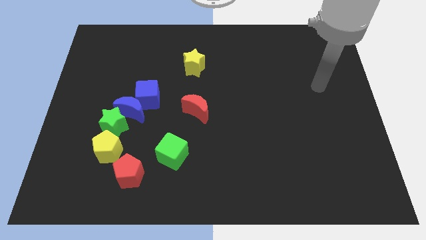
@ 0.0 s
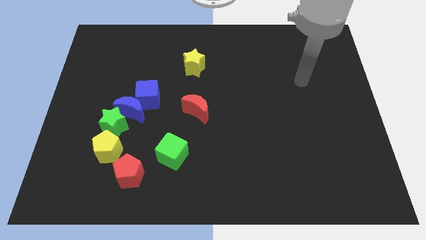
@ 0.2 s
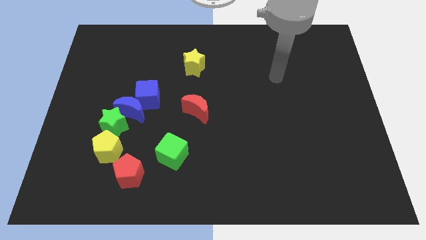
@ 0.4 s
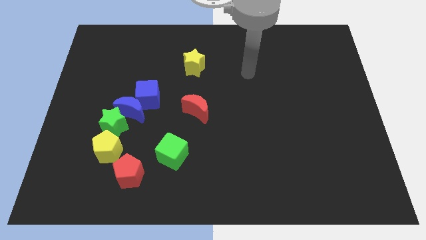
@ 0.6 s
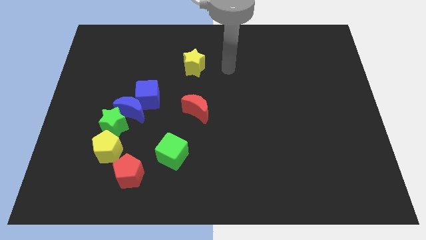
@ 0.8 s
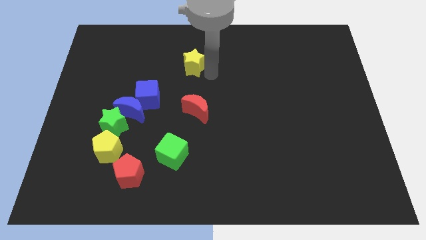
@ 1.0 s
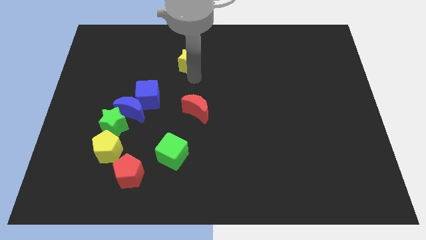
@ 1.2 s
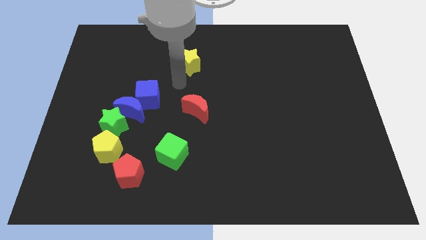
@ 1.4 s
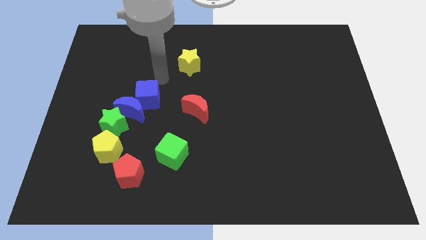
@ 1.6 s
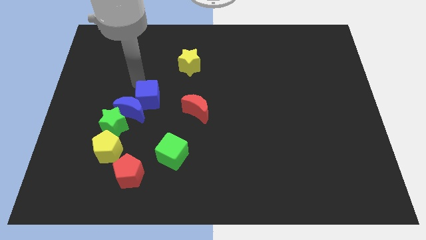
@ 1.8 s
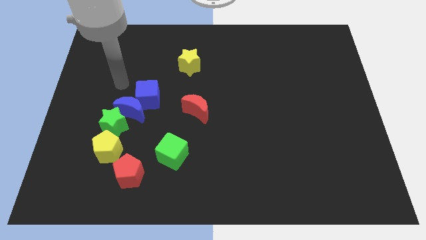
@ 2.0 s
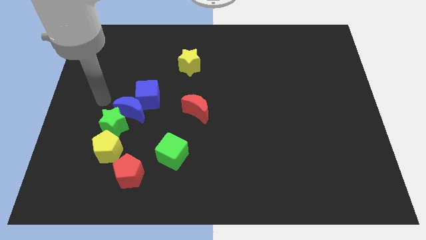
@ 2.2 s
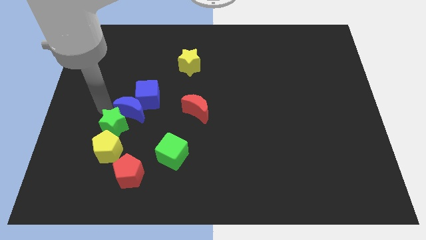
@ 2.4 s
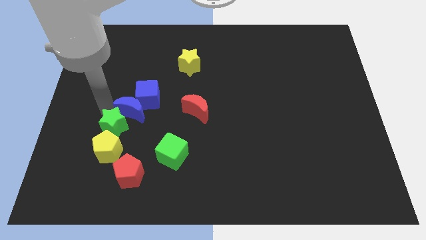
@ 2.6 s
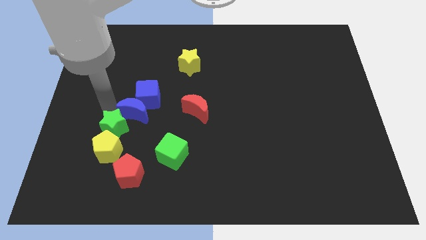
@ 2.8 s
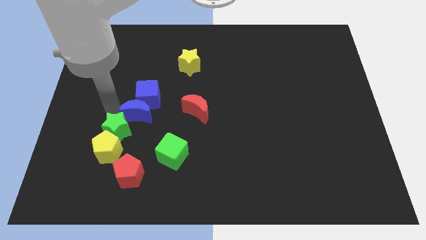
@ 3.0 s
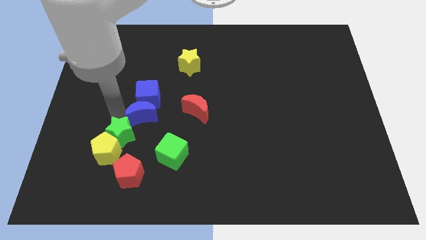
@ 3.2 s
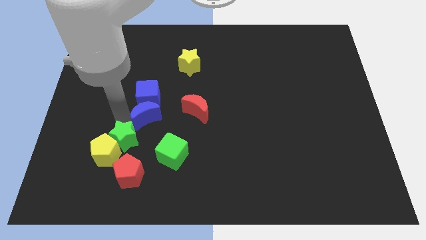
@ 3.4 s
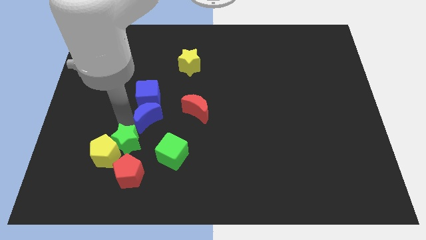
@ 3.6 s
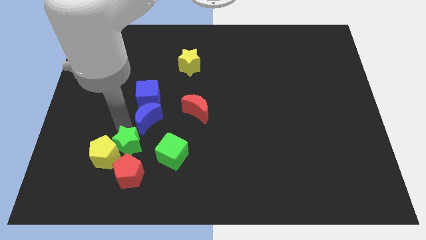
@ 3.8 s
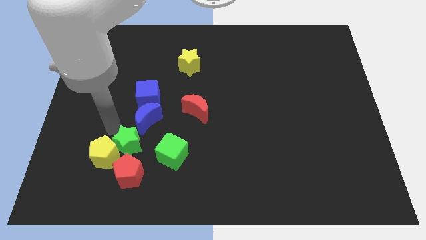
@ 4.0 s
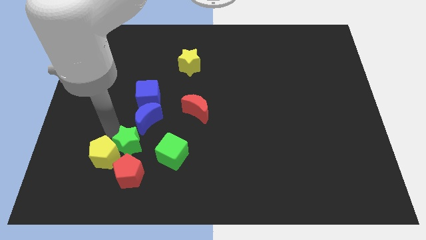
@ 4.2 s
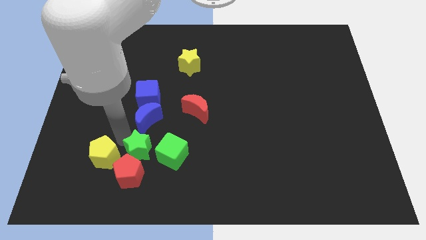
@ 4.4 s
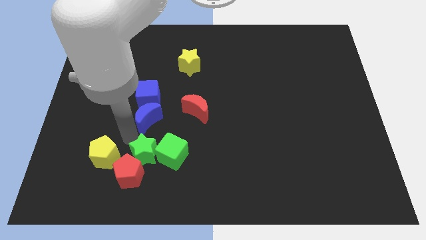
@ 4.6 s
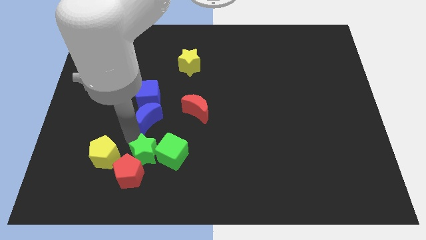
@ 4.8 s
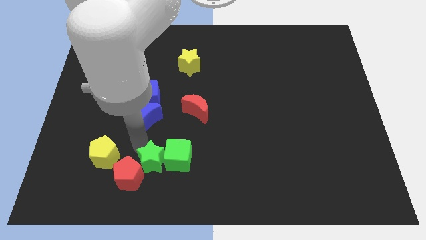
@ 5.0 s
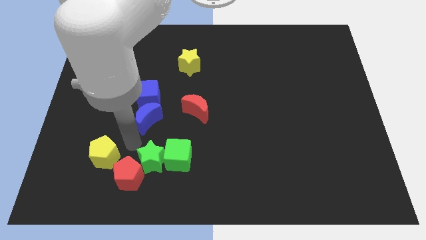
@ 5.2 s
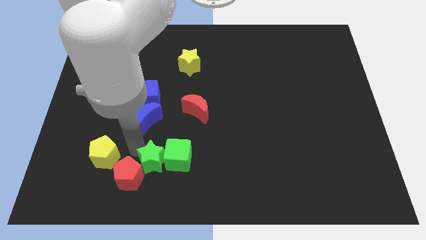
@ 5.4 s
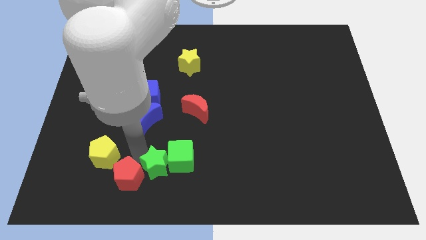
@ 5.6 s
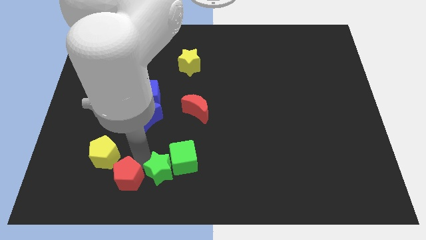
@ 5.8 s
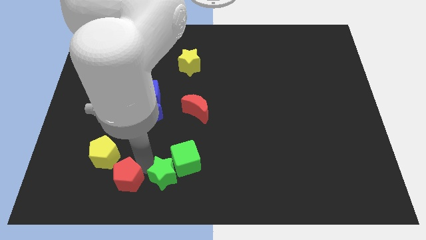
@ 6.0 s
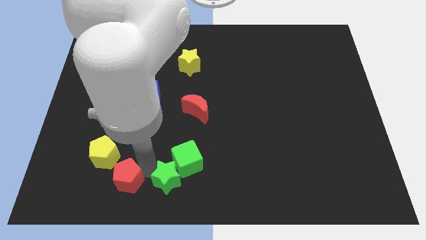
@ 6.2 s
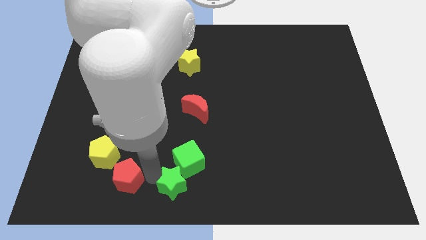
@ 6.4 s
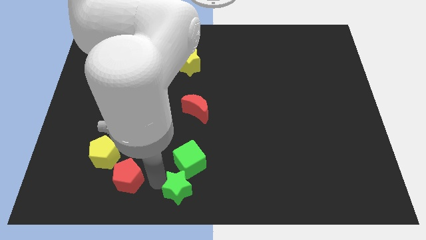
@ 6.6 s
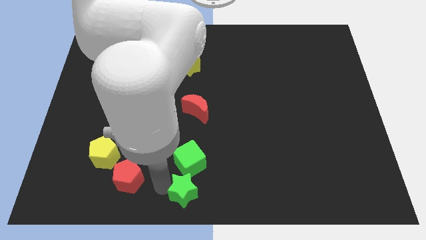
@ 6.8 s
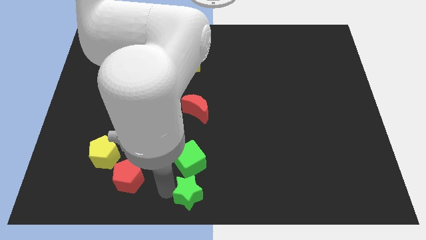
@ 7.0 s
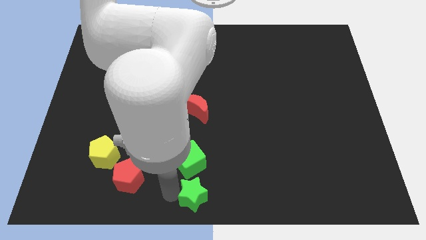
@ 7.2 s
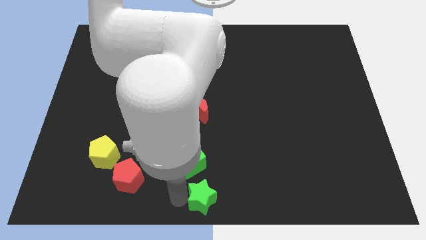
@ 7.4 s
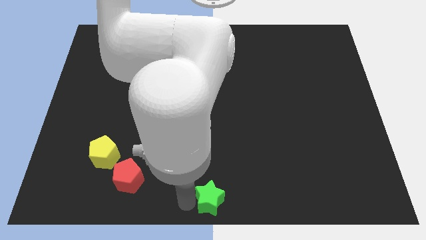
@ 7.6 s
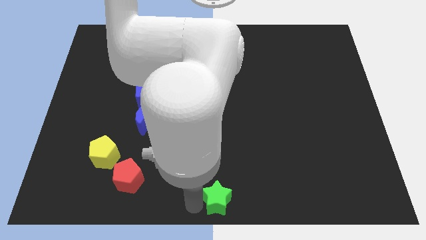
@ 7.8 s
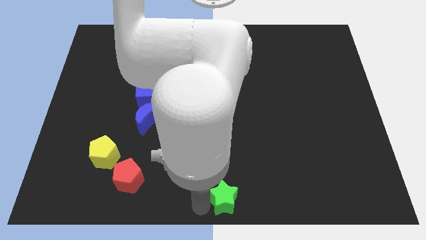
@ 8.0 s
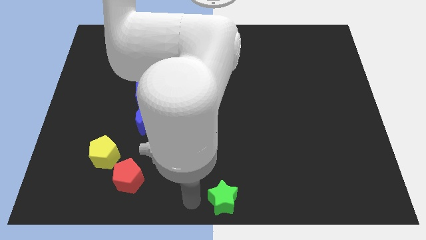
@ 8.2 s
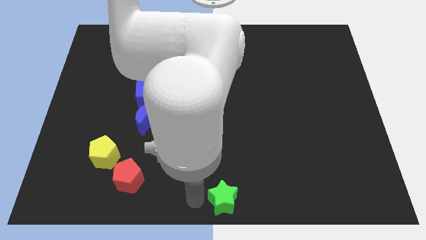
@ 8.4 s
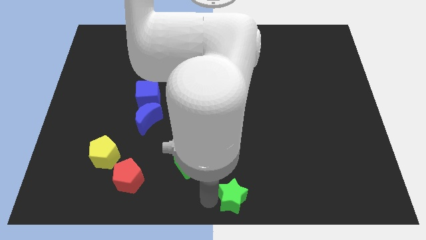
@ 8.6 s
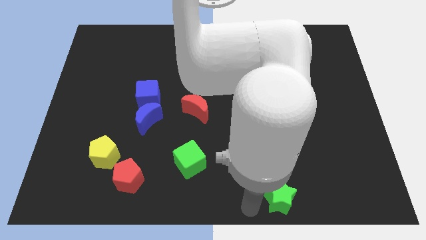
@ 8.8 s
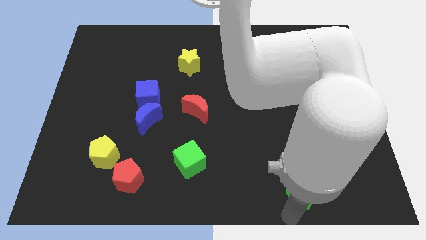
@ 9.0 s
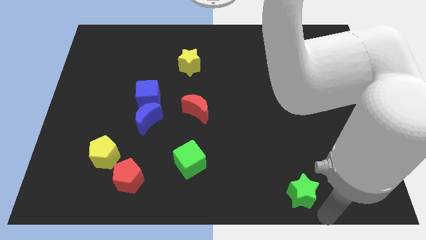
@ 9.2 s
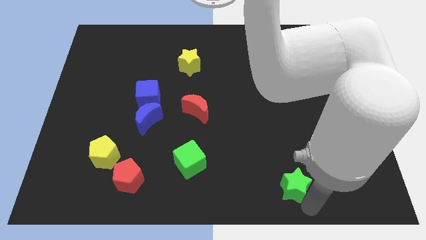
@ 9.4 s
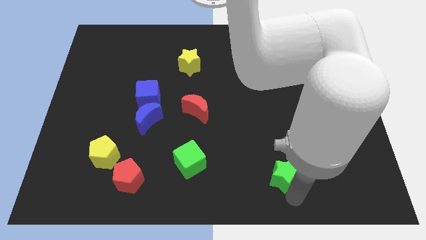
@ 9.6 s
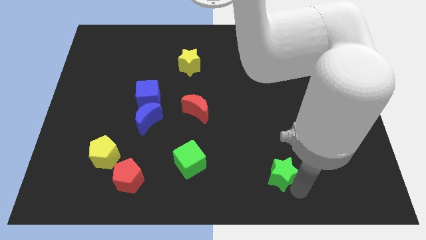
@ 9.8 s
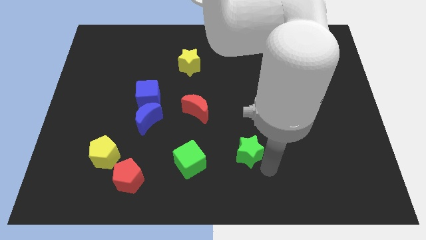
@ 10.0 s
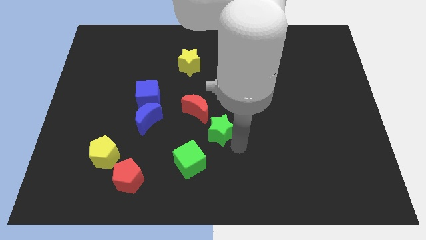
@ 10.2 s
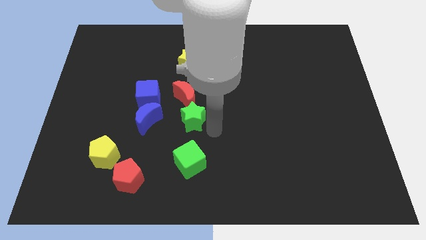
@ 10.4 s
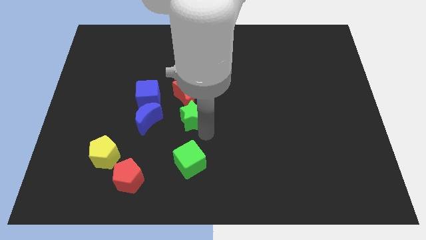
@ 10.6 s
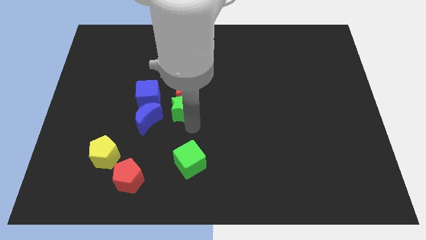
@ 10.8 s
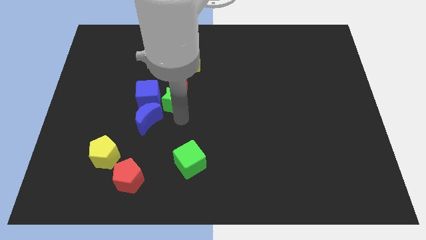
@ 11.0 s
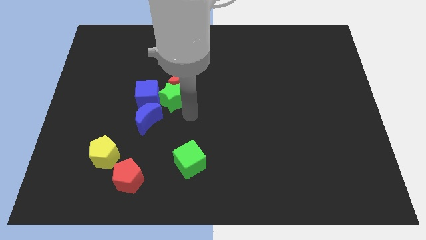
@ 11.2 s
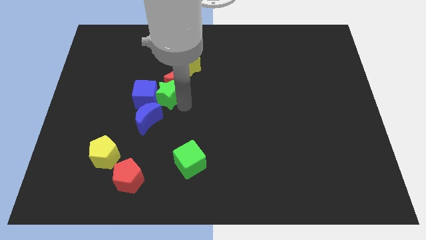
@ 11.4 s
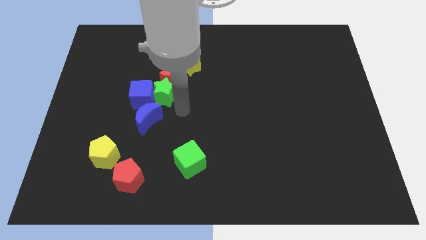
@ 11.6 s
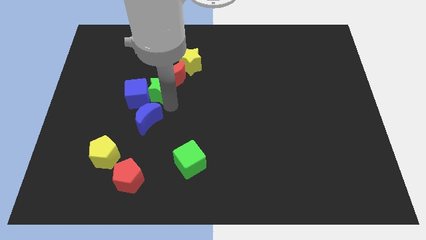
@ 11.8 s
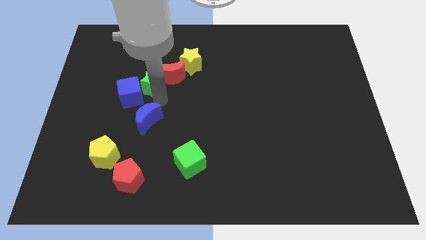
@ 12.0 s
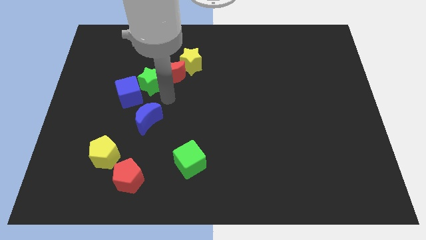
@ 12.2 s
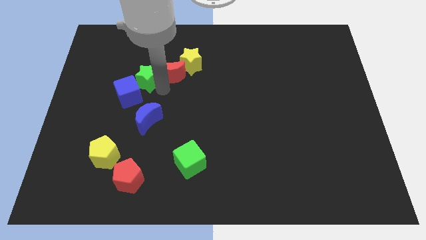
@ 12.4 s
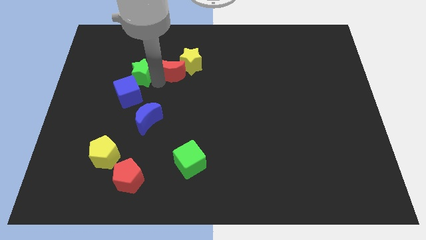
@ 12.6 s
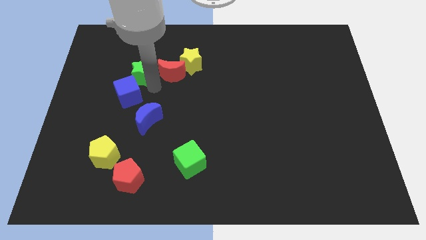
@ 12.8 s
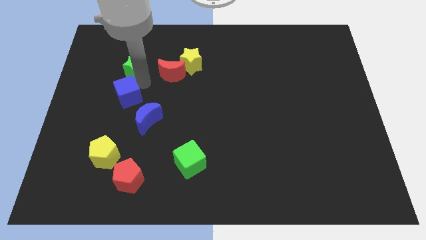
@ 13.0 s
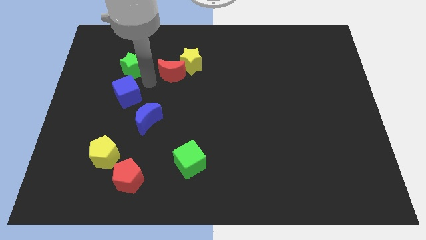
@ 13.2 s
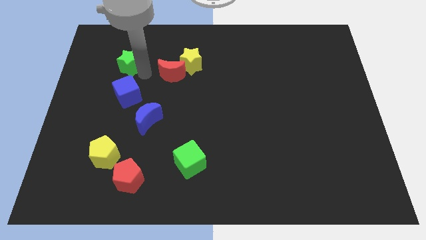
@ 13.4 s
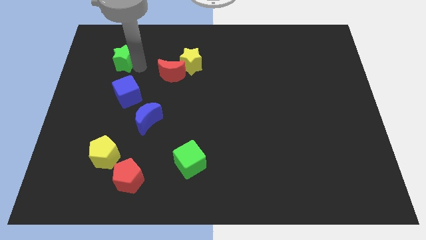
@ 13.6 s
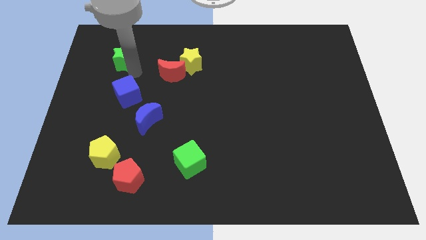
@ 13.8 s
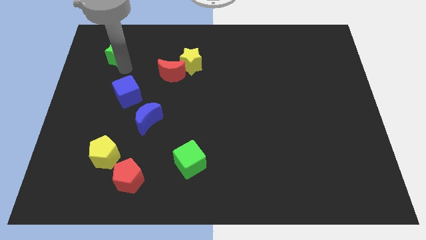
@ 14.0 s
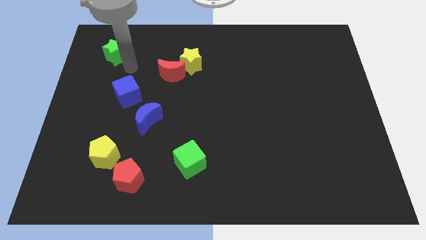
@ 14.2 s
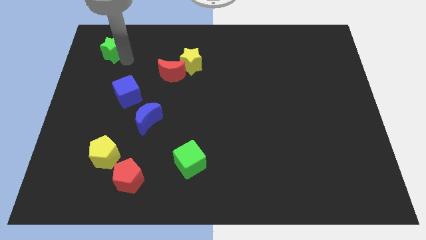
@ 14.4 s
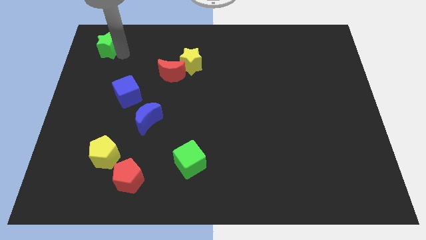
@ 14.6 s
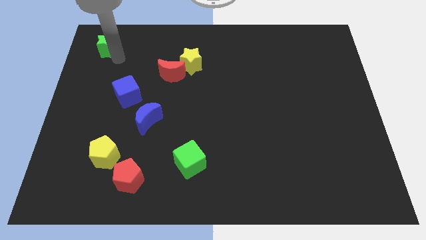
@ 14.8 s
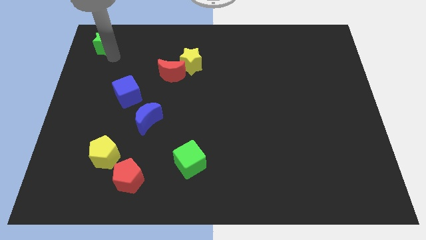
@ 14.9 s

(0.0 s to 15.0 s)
slide the green star to the top left corner
